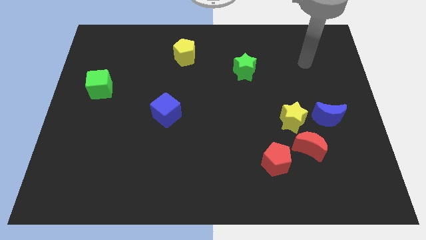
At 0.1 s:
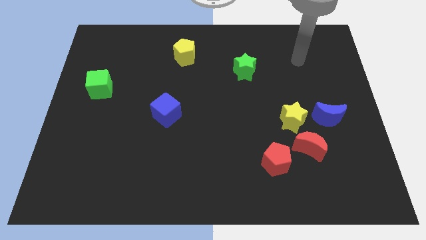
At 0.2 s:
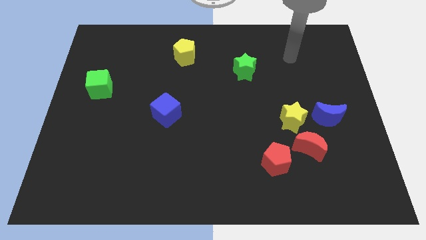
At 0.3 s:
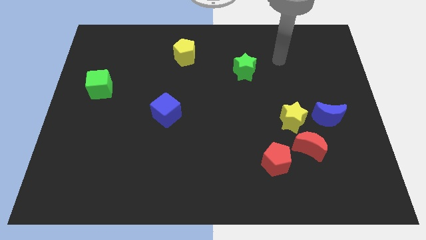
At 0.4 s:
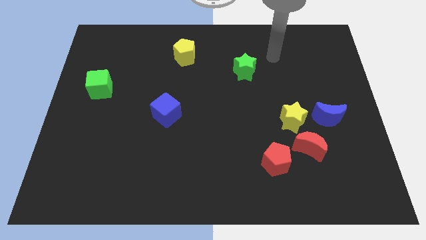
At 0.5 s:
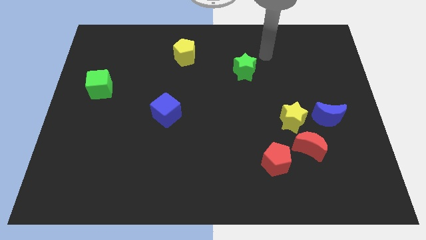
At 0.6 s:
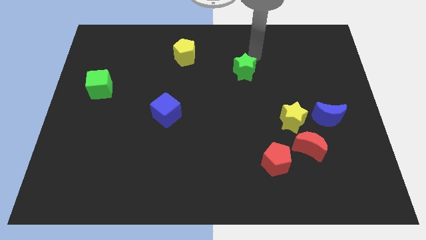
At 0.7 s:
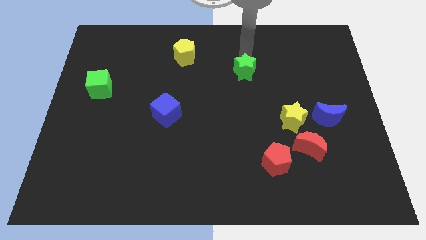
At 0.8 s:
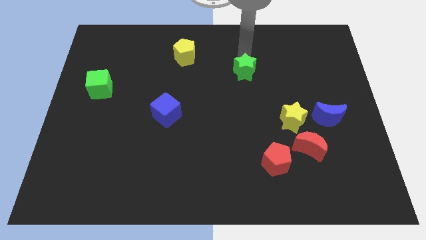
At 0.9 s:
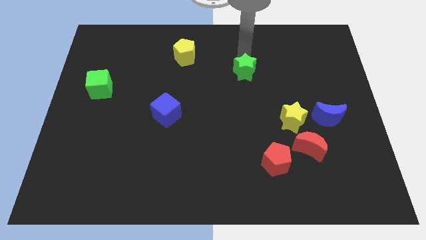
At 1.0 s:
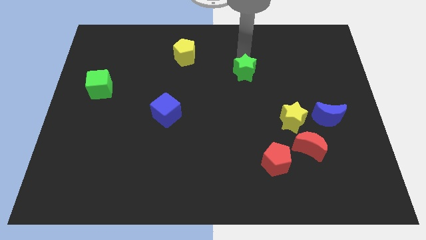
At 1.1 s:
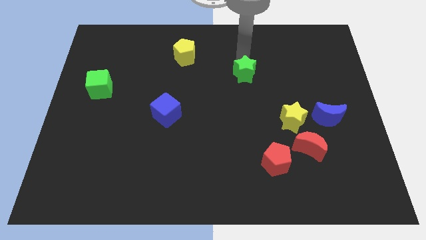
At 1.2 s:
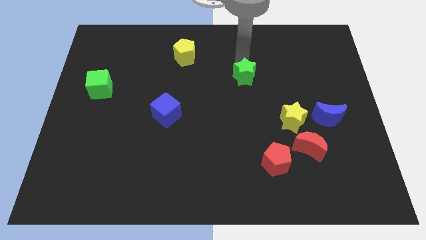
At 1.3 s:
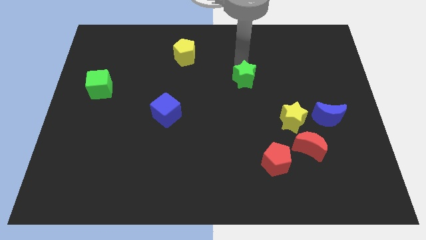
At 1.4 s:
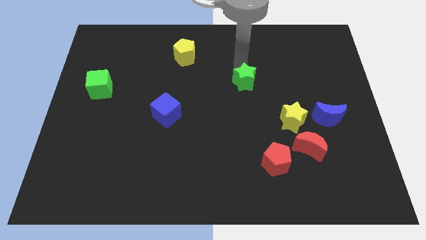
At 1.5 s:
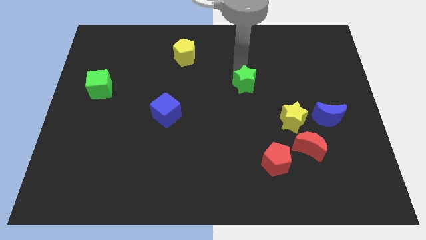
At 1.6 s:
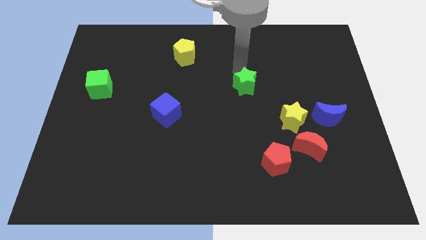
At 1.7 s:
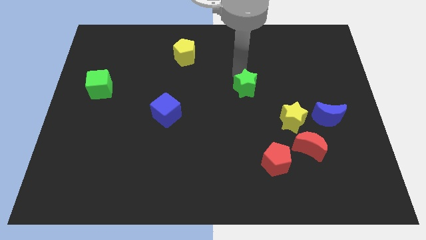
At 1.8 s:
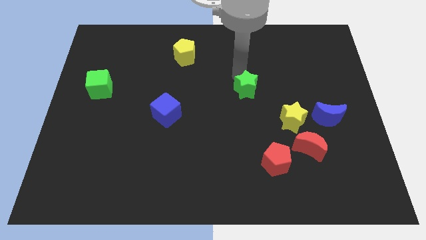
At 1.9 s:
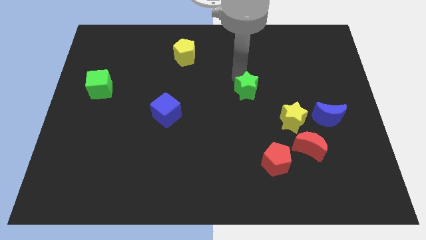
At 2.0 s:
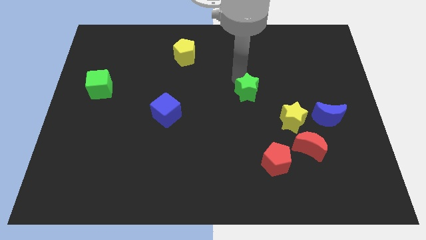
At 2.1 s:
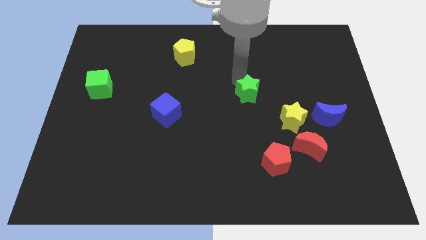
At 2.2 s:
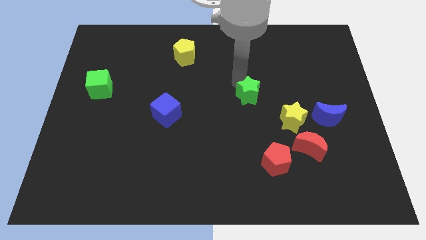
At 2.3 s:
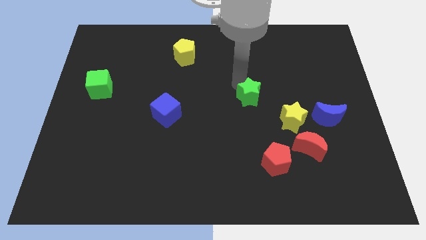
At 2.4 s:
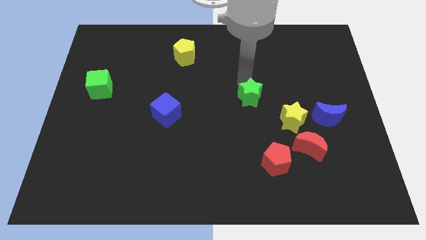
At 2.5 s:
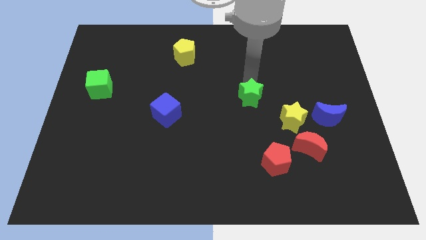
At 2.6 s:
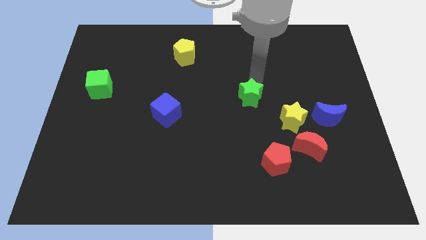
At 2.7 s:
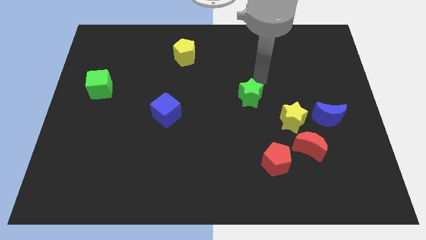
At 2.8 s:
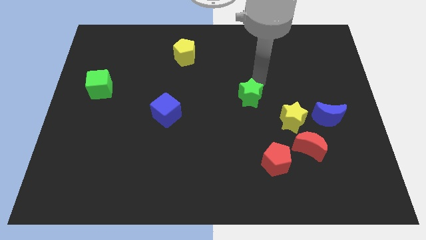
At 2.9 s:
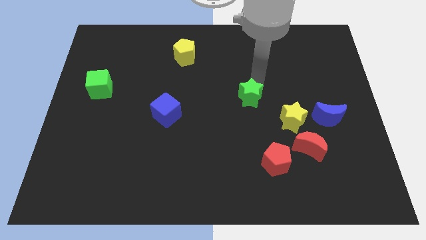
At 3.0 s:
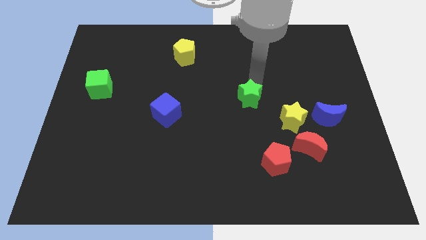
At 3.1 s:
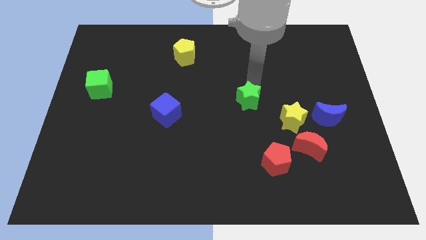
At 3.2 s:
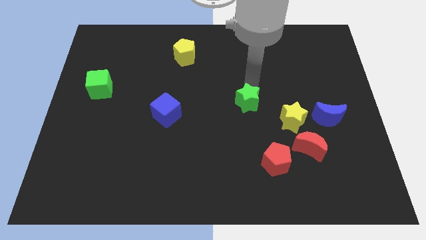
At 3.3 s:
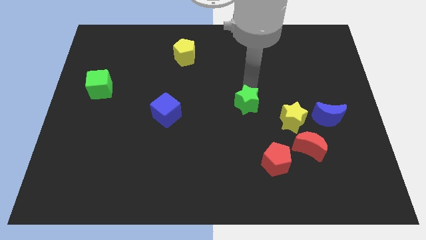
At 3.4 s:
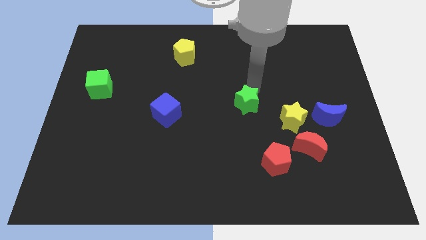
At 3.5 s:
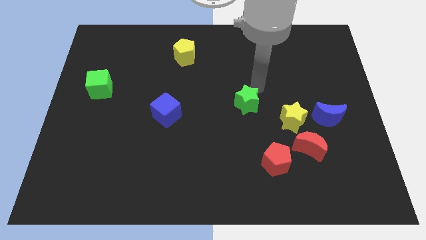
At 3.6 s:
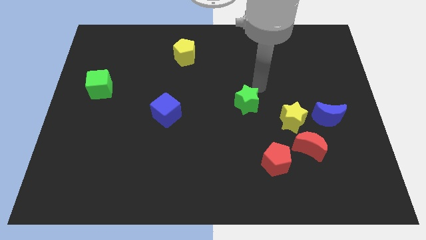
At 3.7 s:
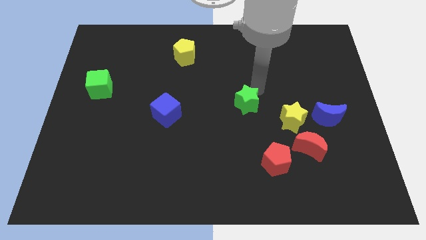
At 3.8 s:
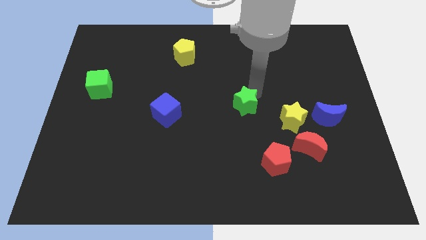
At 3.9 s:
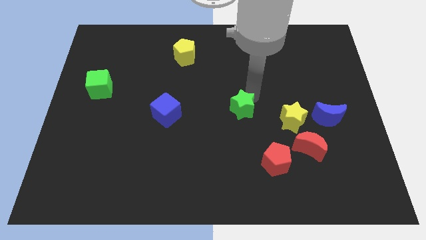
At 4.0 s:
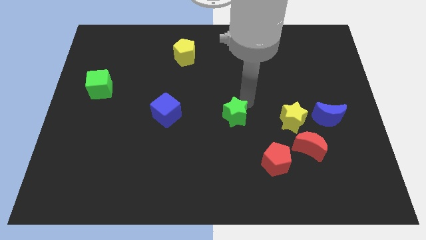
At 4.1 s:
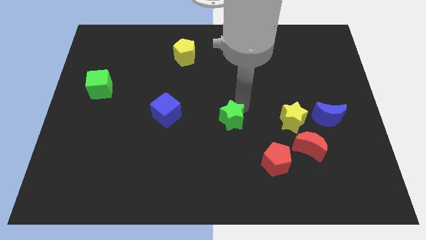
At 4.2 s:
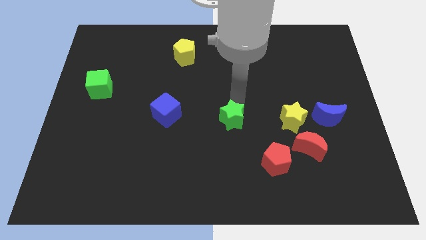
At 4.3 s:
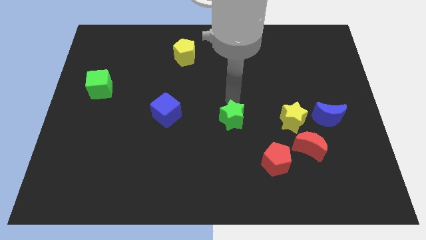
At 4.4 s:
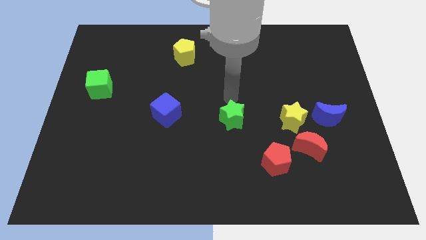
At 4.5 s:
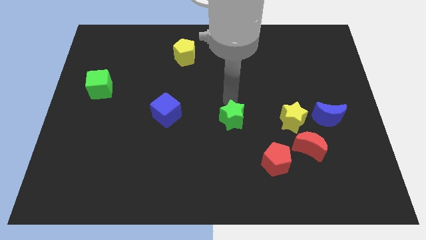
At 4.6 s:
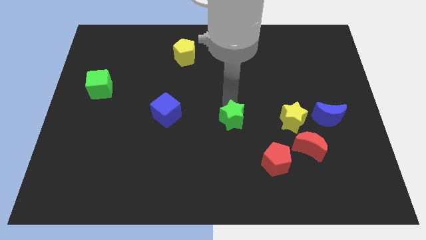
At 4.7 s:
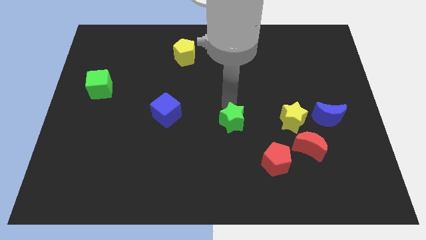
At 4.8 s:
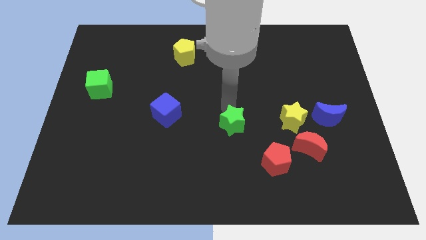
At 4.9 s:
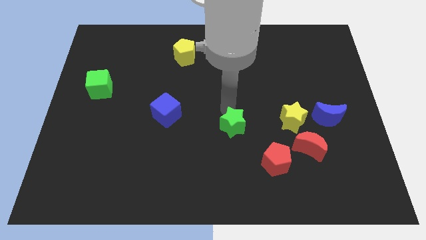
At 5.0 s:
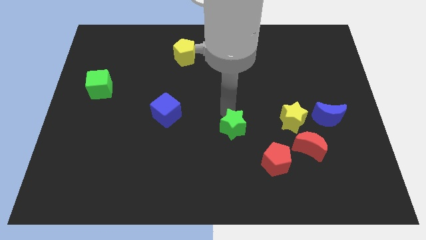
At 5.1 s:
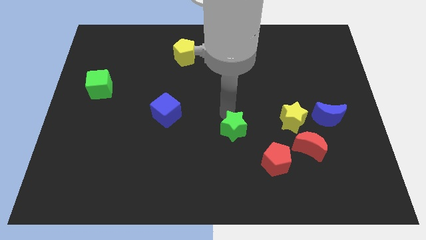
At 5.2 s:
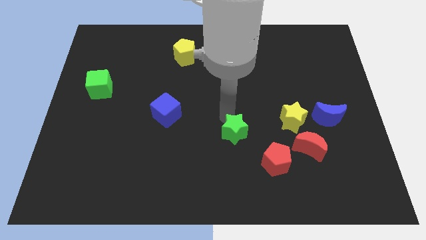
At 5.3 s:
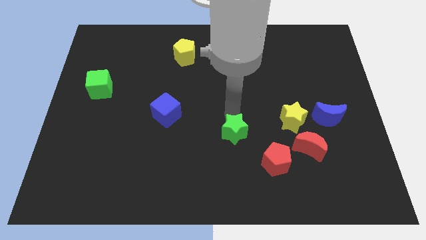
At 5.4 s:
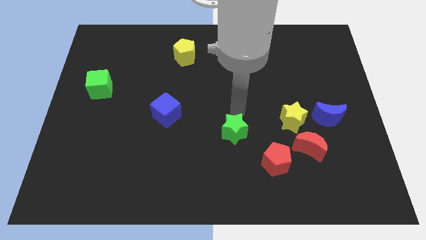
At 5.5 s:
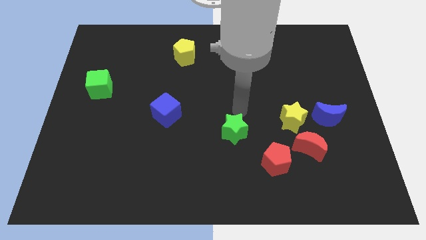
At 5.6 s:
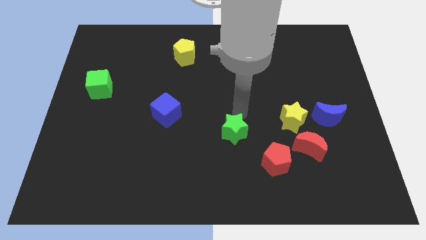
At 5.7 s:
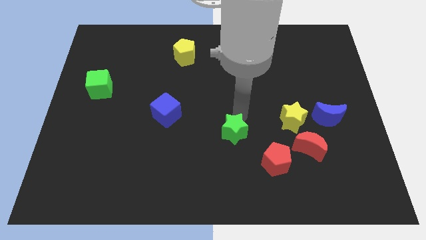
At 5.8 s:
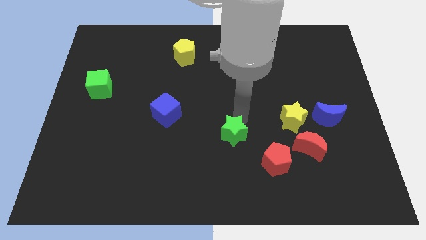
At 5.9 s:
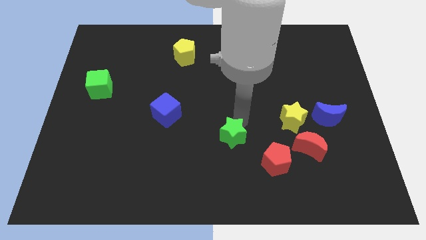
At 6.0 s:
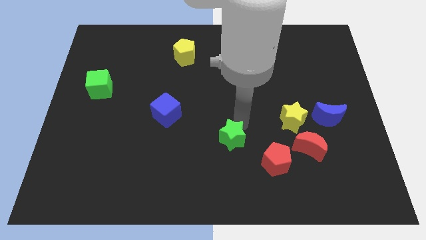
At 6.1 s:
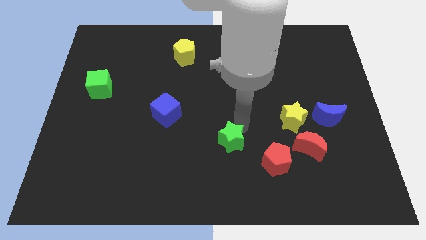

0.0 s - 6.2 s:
move the green star to the left side of the red pentagon

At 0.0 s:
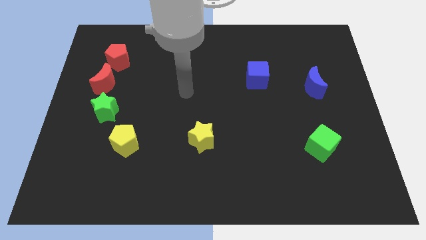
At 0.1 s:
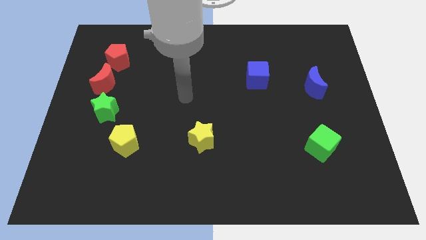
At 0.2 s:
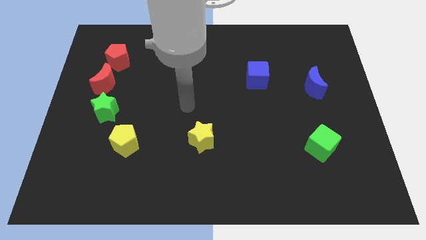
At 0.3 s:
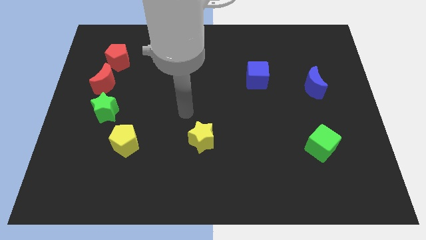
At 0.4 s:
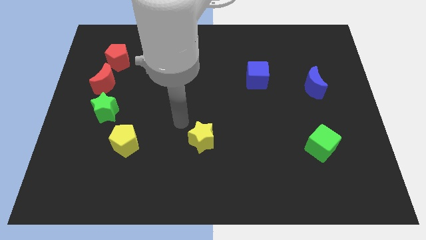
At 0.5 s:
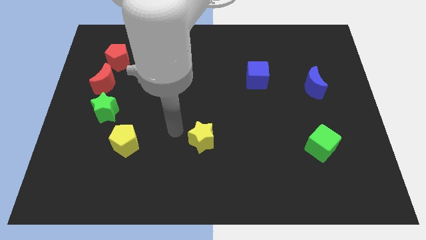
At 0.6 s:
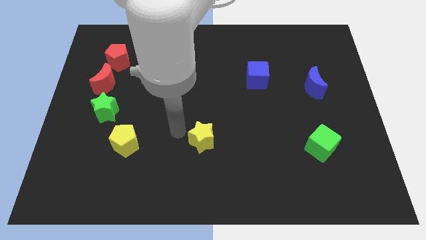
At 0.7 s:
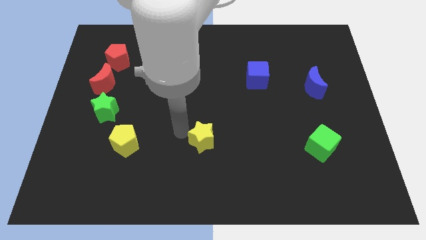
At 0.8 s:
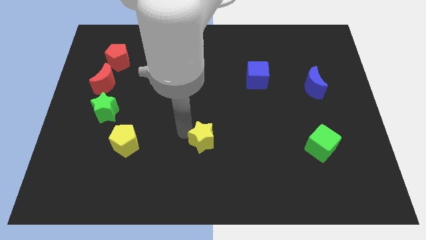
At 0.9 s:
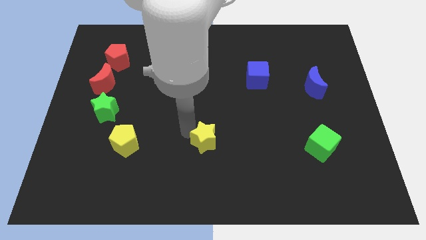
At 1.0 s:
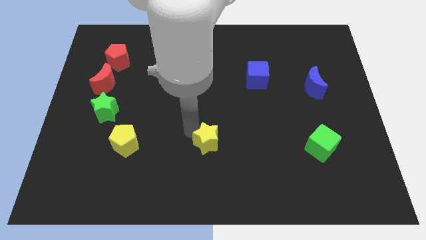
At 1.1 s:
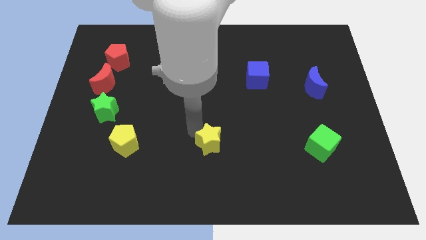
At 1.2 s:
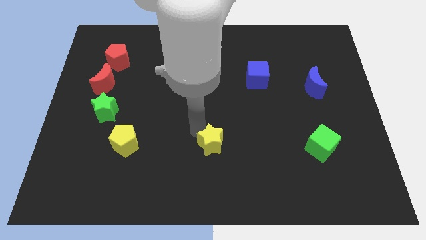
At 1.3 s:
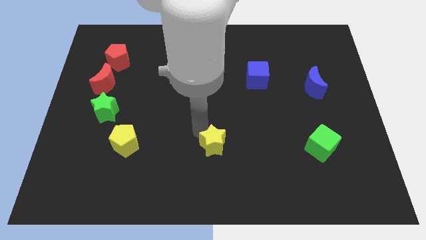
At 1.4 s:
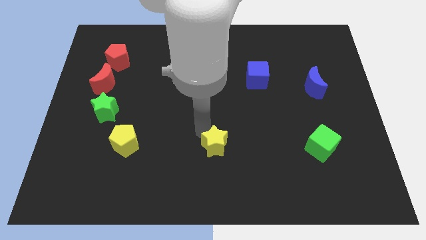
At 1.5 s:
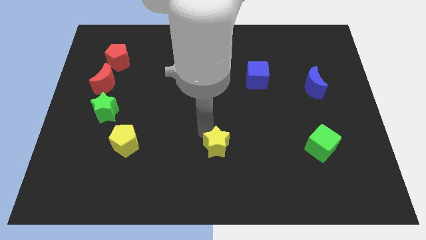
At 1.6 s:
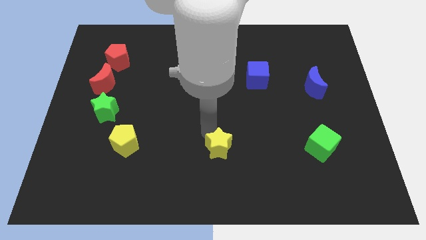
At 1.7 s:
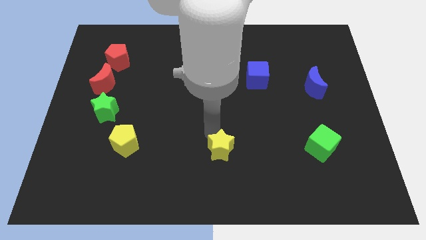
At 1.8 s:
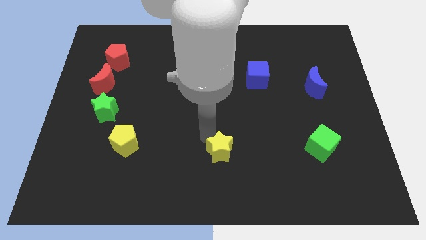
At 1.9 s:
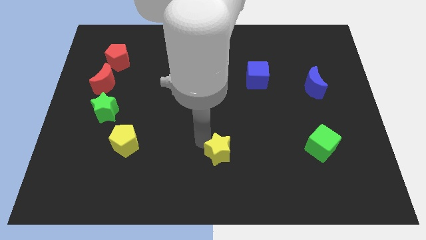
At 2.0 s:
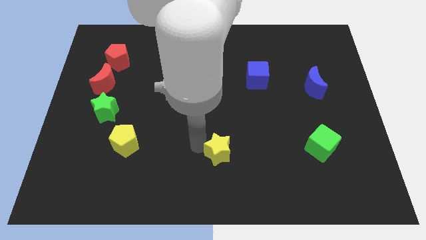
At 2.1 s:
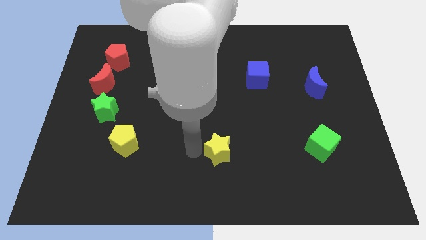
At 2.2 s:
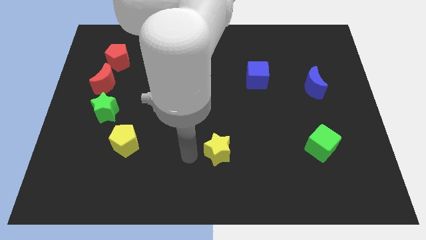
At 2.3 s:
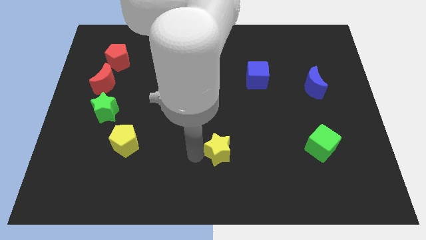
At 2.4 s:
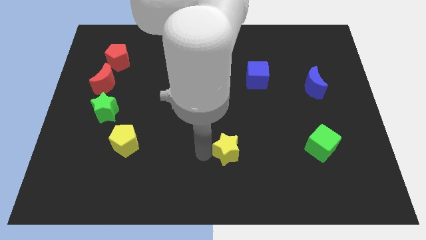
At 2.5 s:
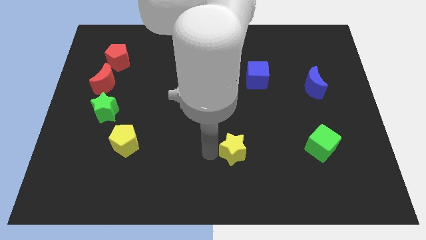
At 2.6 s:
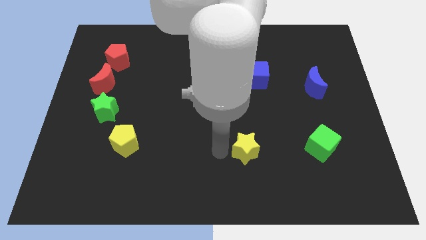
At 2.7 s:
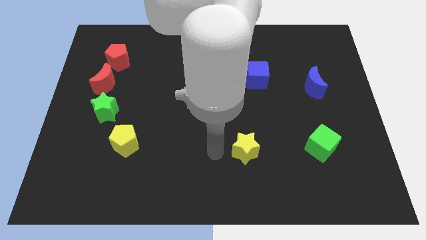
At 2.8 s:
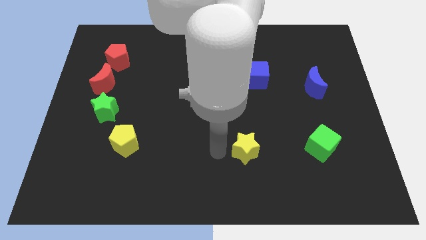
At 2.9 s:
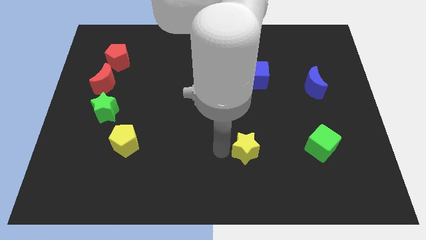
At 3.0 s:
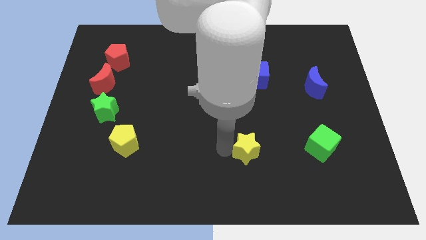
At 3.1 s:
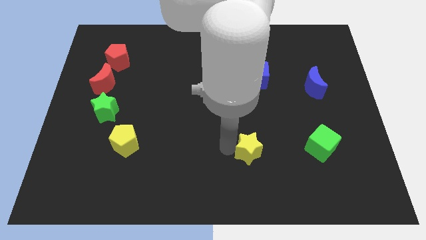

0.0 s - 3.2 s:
move the yellow star left of the green cube
